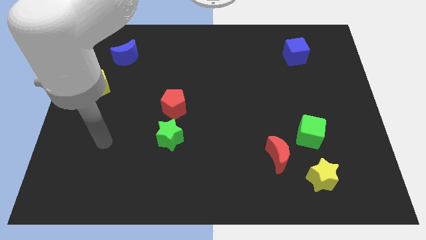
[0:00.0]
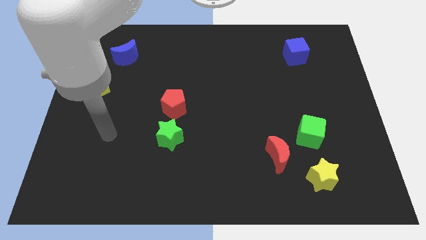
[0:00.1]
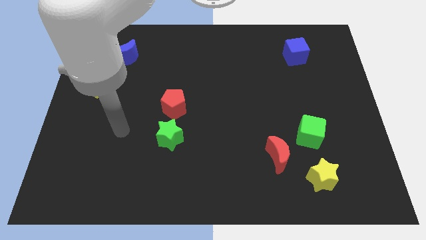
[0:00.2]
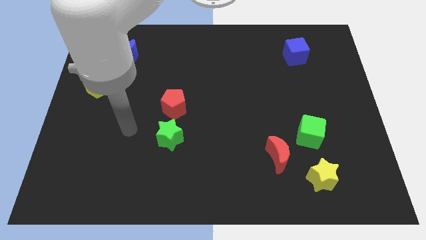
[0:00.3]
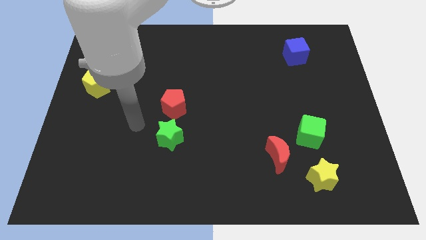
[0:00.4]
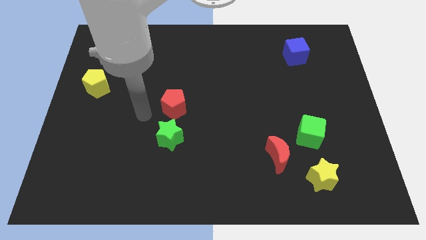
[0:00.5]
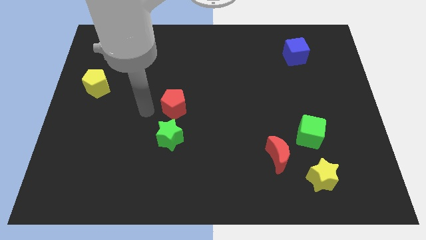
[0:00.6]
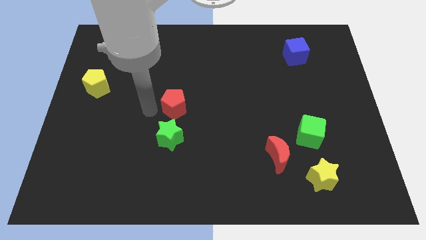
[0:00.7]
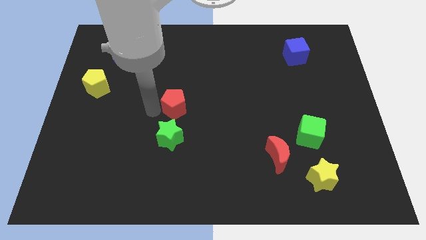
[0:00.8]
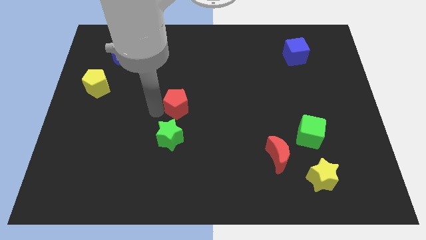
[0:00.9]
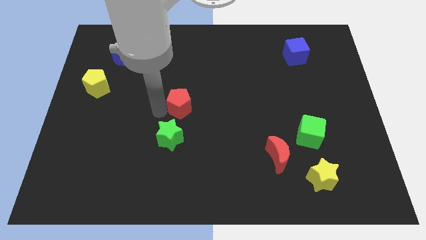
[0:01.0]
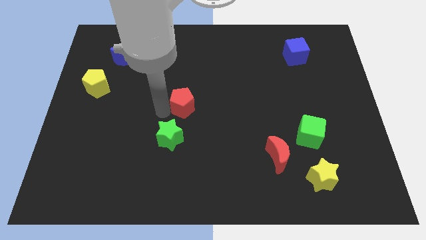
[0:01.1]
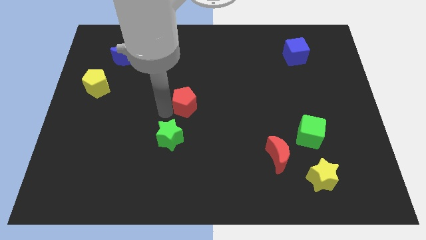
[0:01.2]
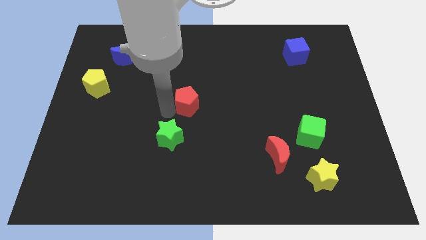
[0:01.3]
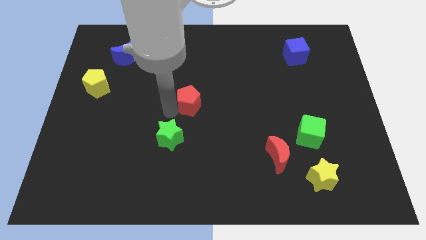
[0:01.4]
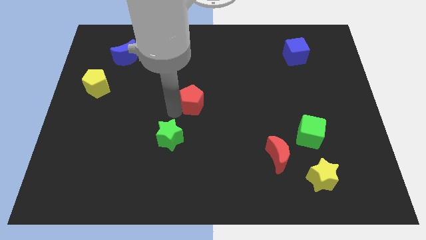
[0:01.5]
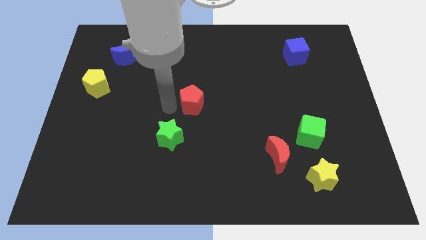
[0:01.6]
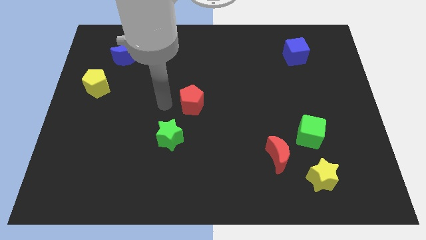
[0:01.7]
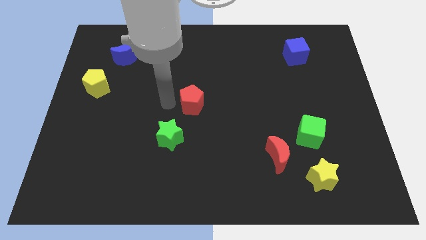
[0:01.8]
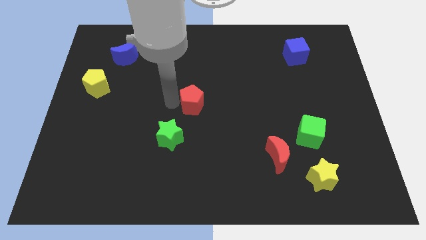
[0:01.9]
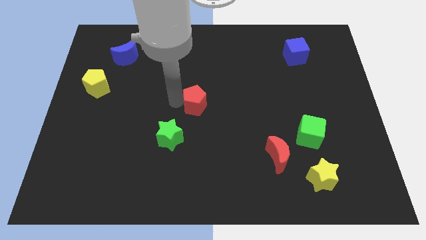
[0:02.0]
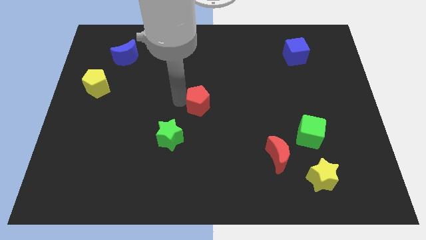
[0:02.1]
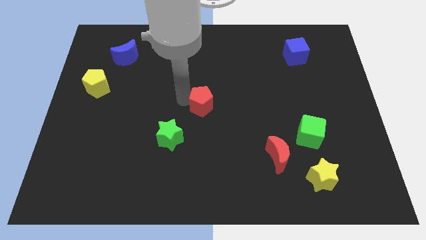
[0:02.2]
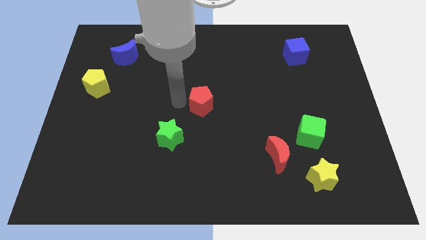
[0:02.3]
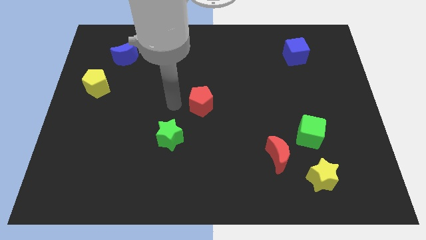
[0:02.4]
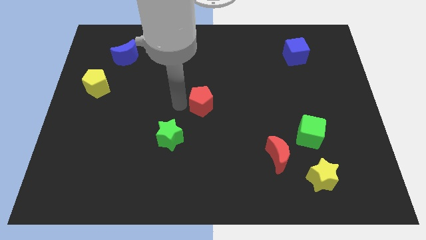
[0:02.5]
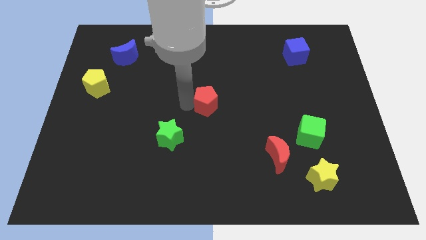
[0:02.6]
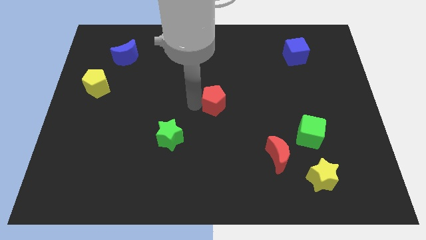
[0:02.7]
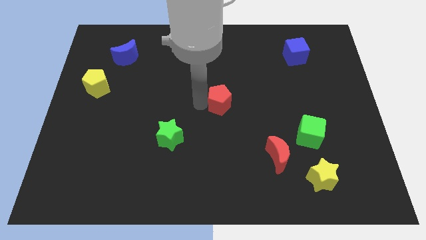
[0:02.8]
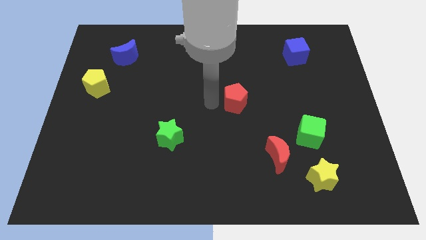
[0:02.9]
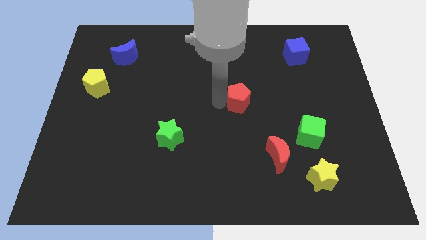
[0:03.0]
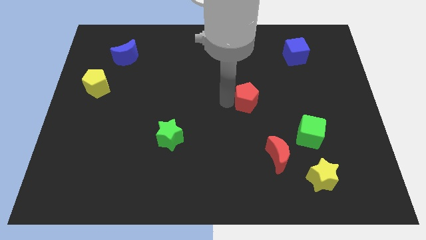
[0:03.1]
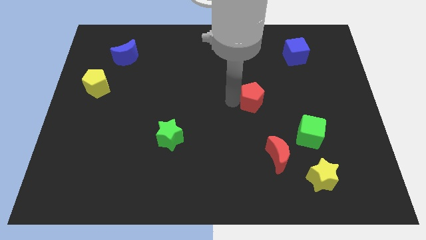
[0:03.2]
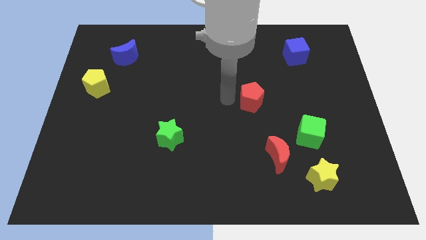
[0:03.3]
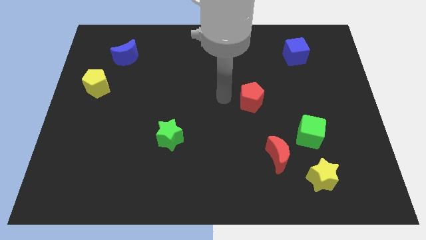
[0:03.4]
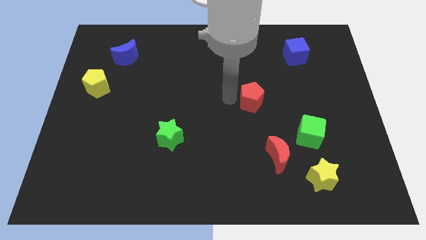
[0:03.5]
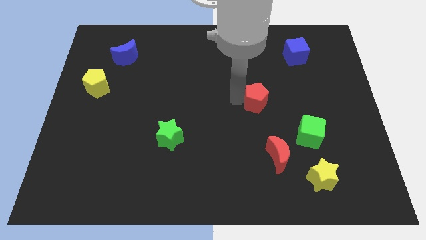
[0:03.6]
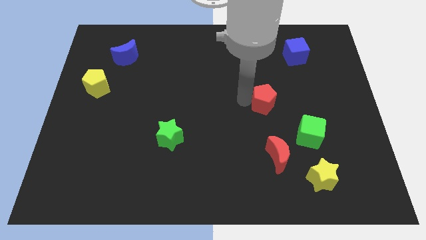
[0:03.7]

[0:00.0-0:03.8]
move the red pentagon to the right

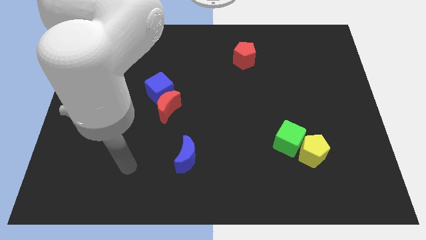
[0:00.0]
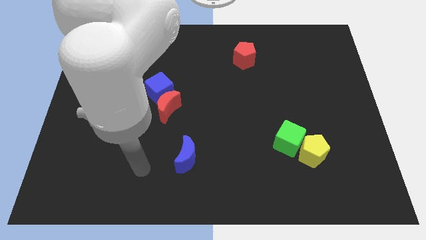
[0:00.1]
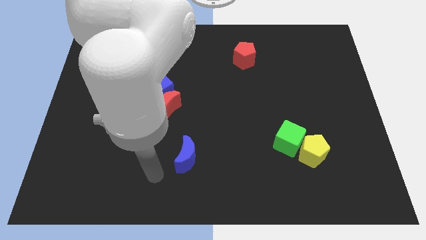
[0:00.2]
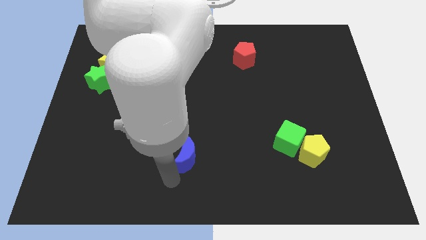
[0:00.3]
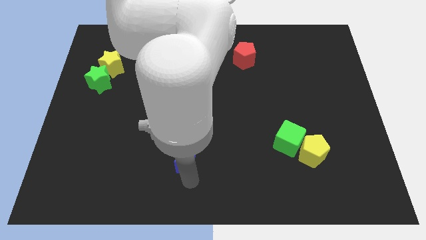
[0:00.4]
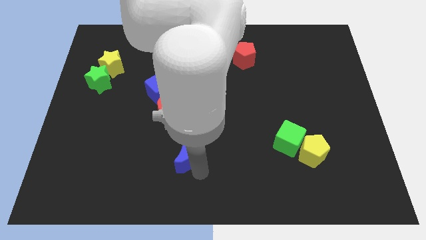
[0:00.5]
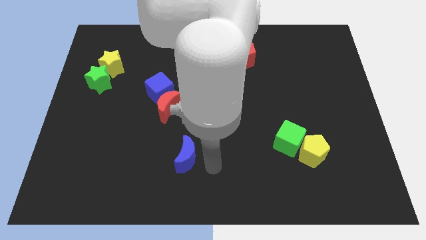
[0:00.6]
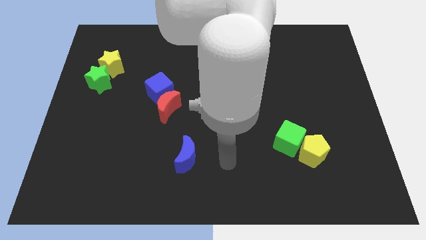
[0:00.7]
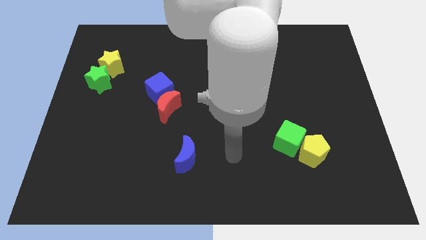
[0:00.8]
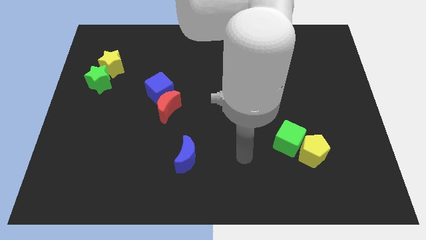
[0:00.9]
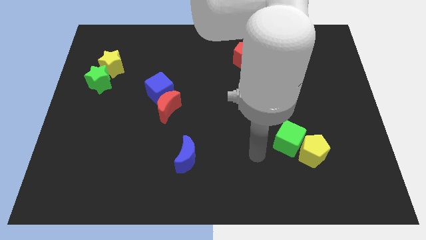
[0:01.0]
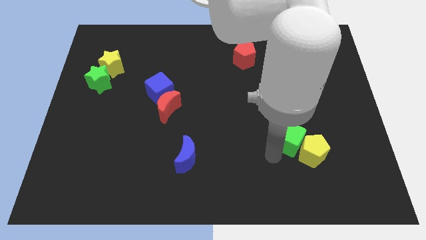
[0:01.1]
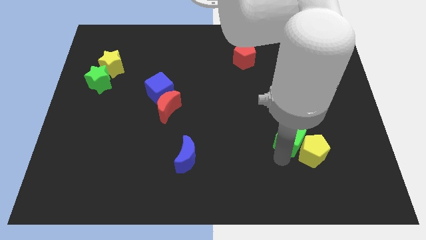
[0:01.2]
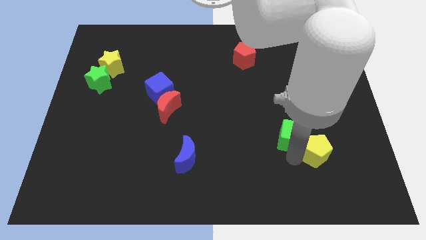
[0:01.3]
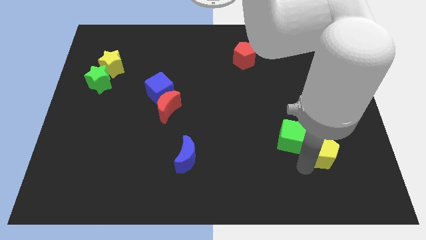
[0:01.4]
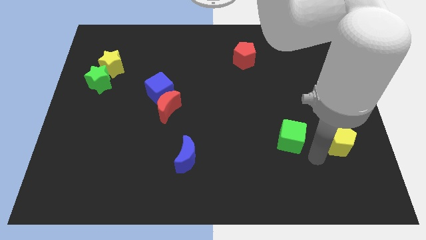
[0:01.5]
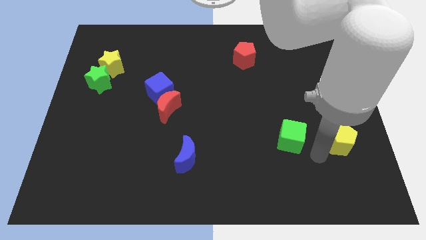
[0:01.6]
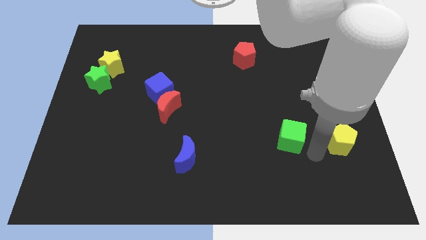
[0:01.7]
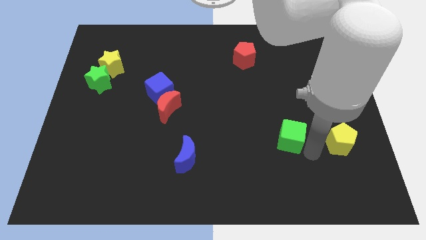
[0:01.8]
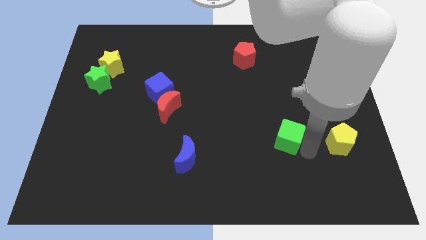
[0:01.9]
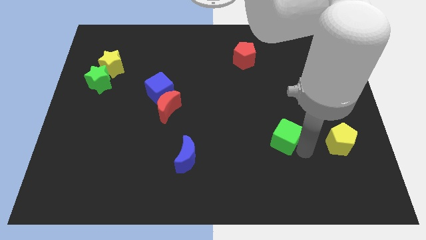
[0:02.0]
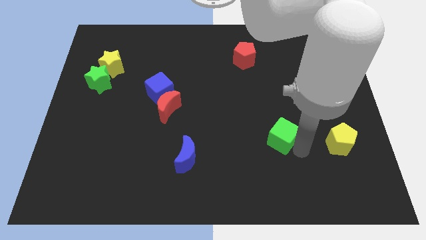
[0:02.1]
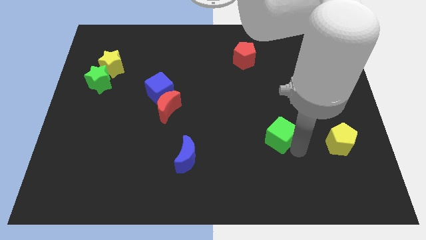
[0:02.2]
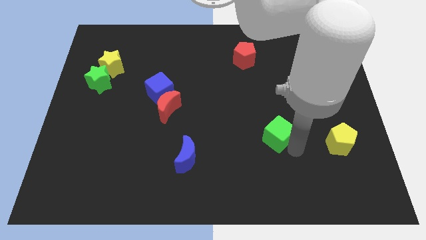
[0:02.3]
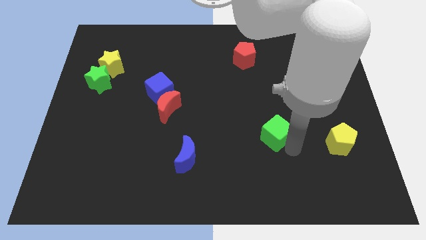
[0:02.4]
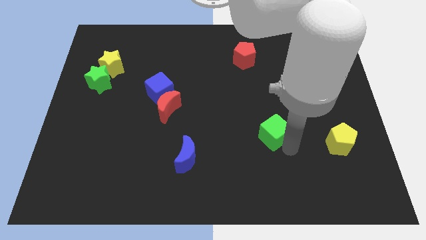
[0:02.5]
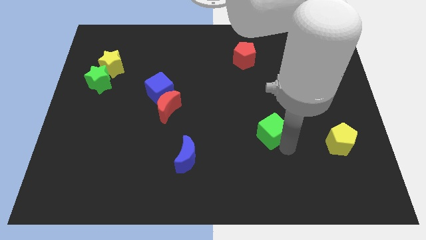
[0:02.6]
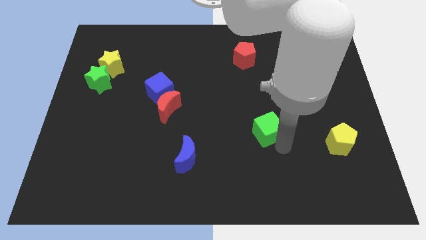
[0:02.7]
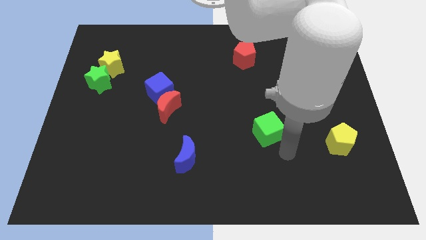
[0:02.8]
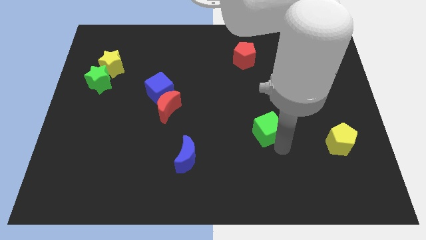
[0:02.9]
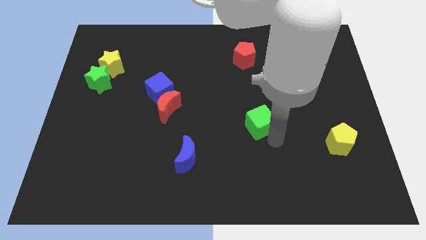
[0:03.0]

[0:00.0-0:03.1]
slightly move the green cube upwards and left diagonally

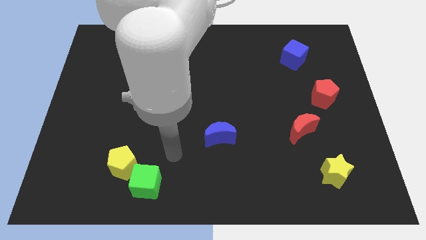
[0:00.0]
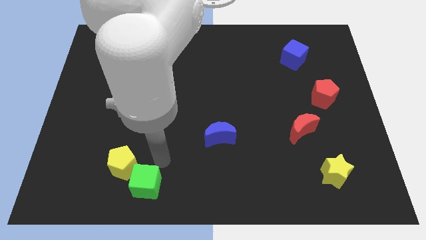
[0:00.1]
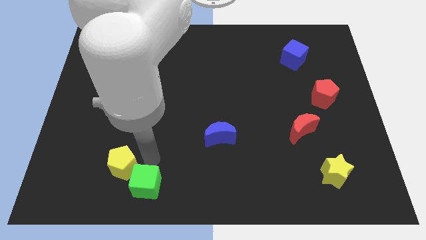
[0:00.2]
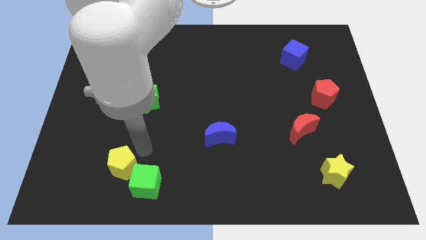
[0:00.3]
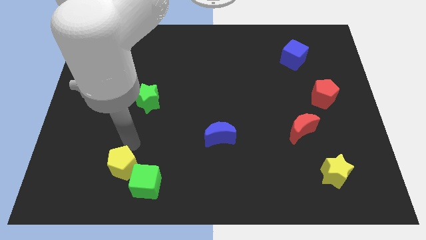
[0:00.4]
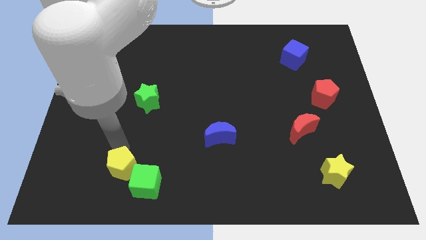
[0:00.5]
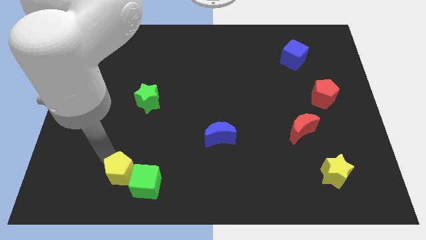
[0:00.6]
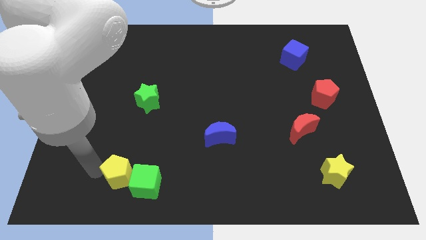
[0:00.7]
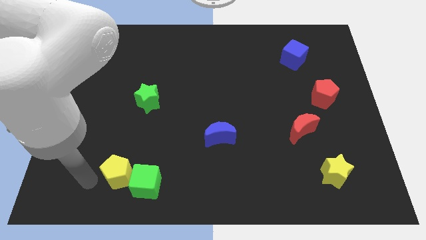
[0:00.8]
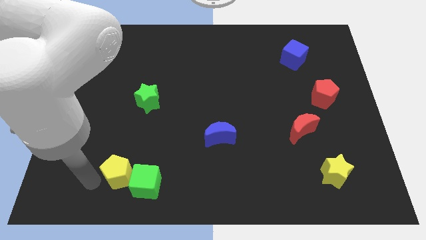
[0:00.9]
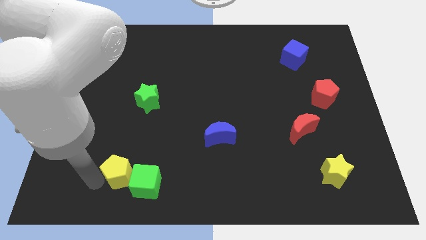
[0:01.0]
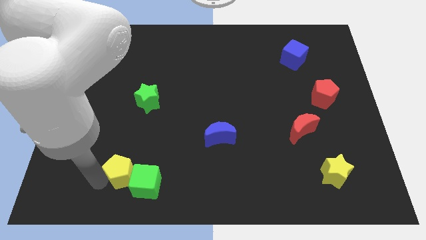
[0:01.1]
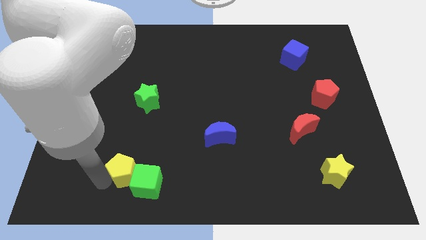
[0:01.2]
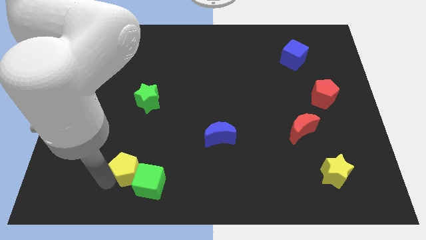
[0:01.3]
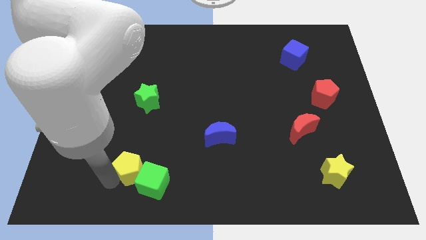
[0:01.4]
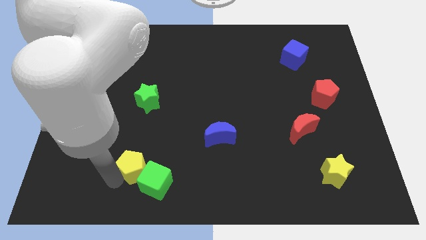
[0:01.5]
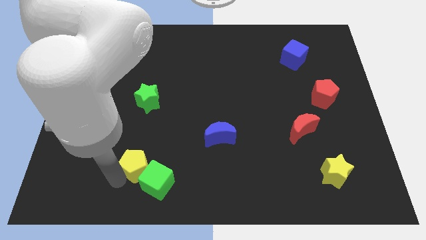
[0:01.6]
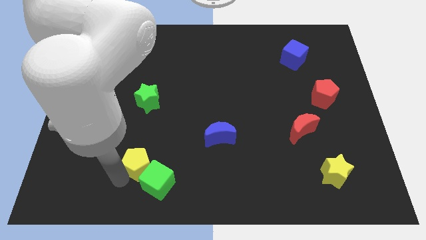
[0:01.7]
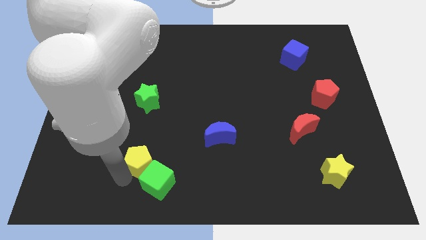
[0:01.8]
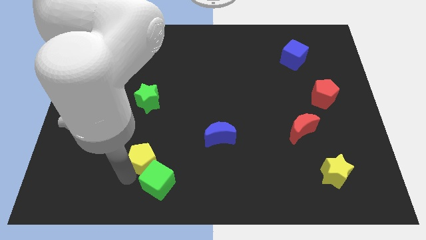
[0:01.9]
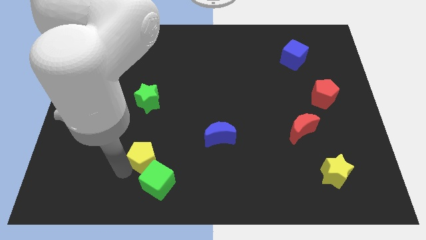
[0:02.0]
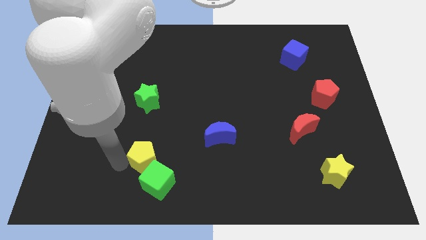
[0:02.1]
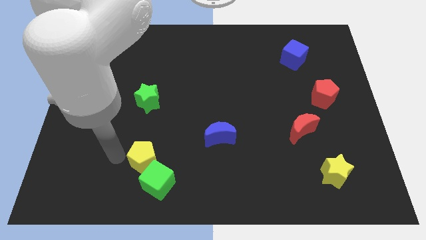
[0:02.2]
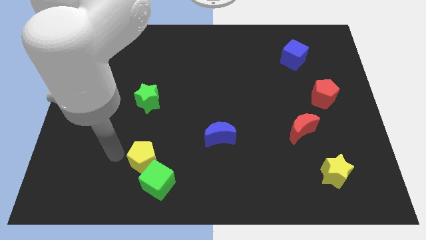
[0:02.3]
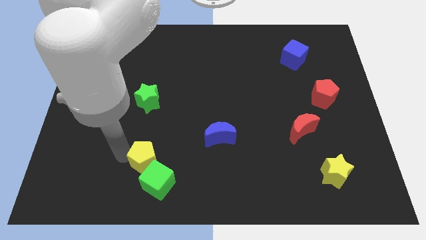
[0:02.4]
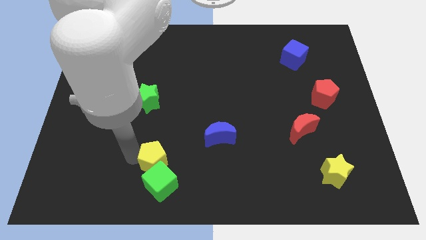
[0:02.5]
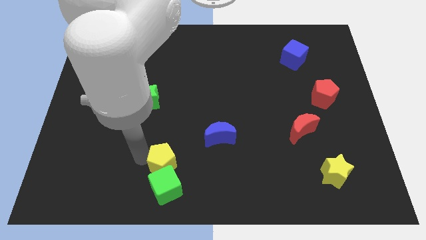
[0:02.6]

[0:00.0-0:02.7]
move the yellow pentagon to the right slightly
